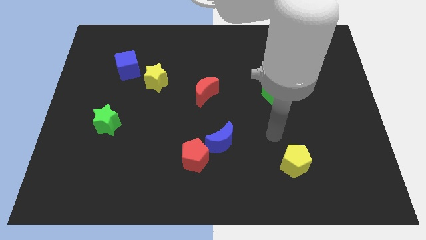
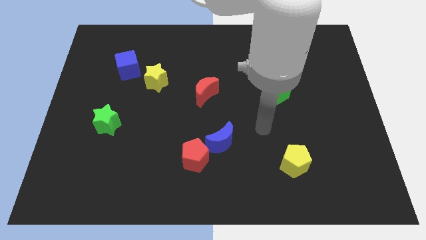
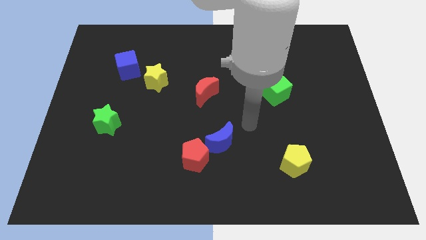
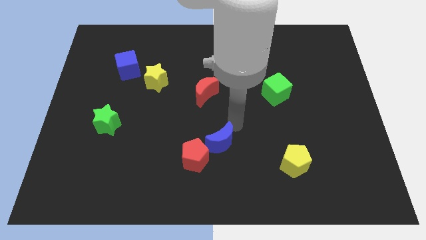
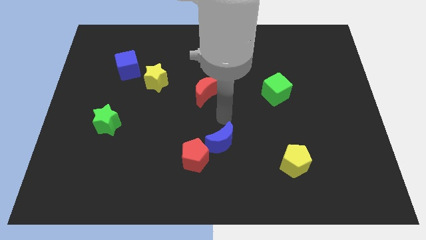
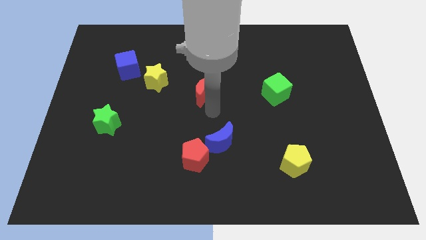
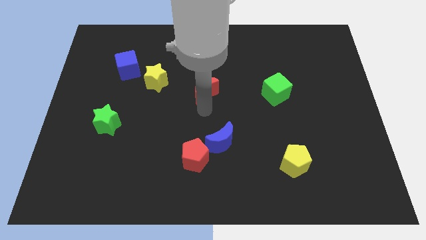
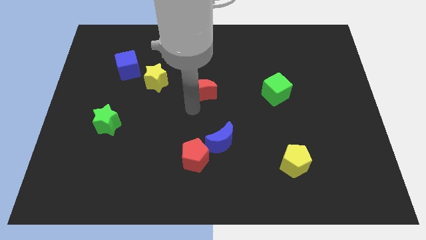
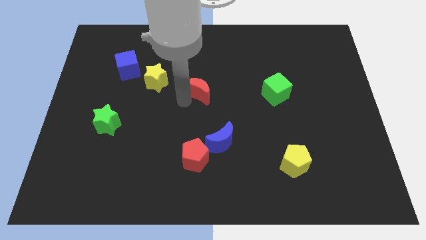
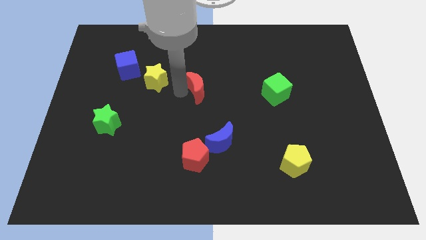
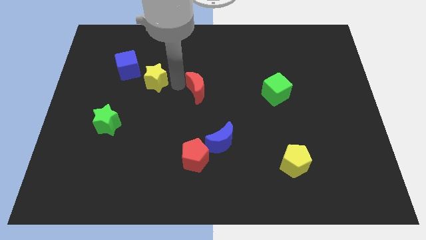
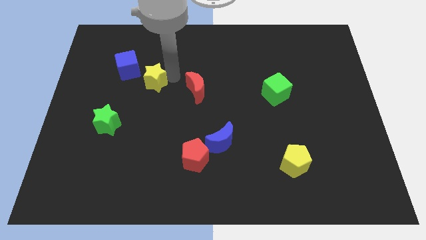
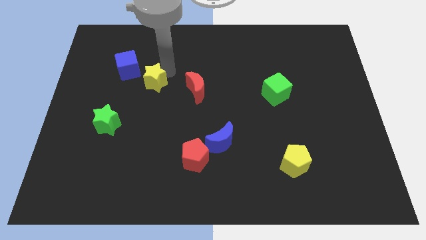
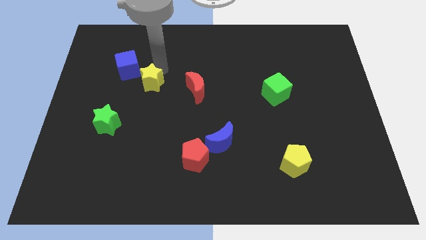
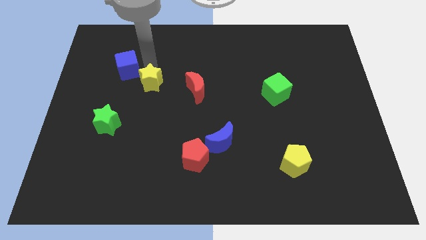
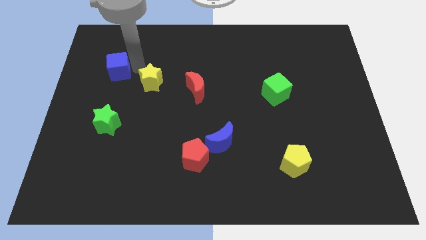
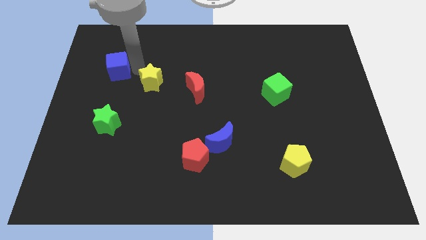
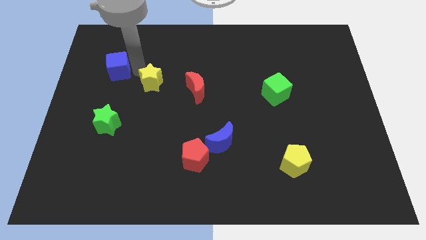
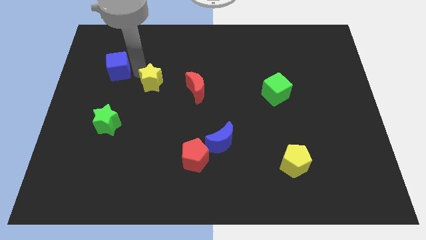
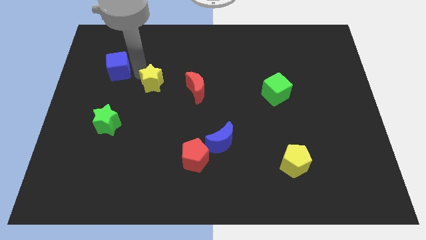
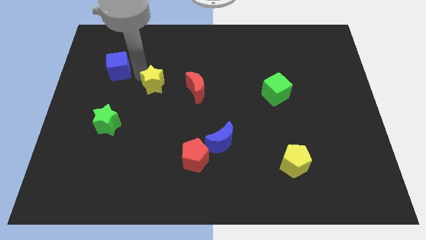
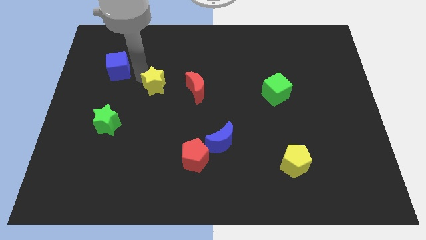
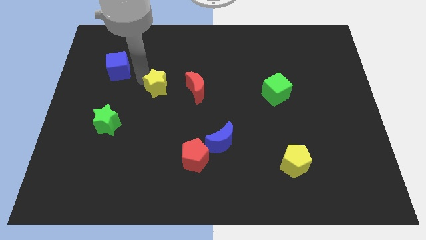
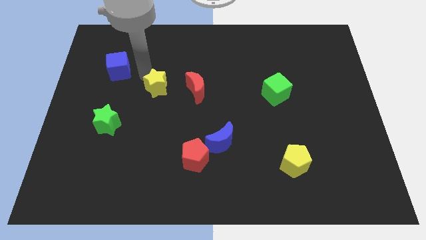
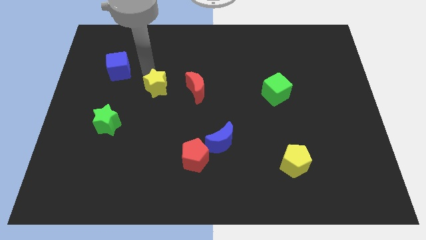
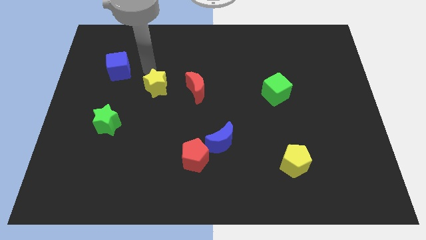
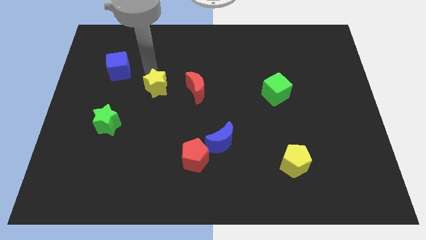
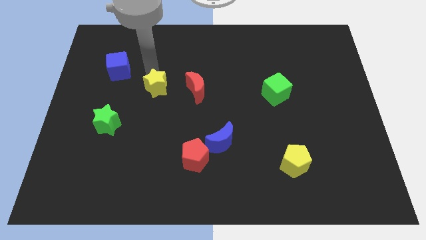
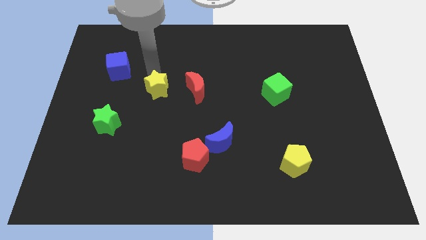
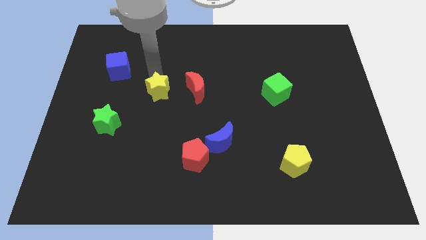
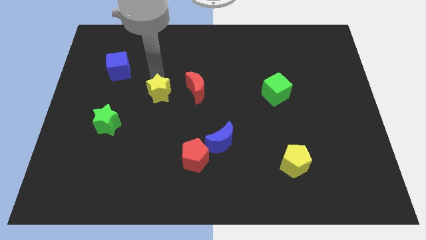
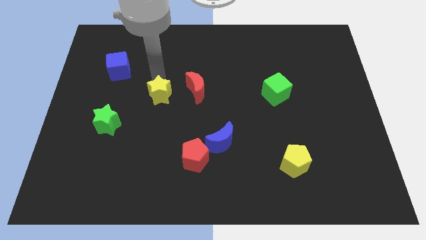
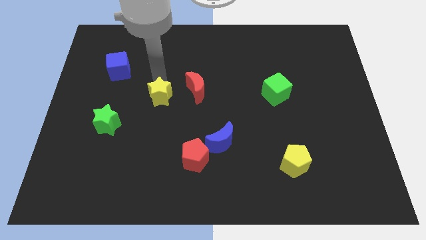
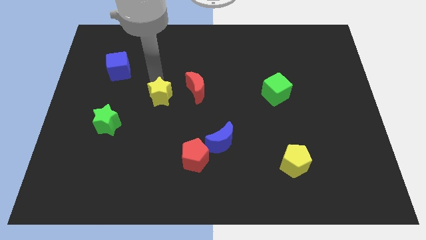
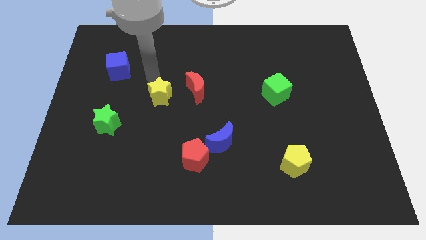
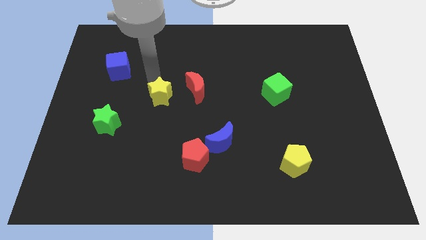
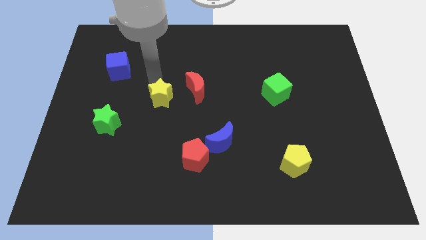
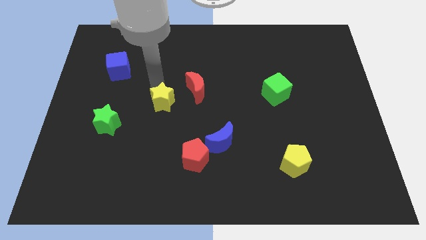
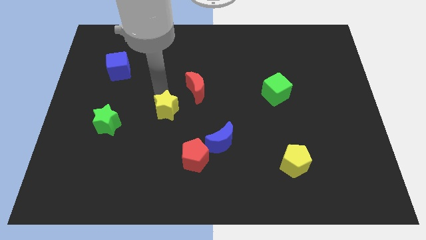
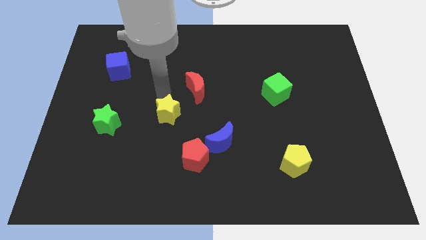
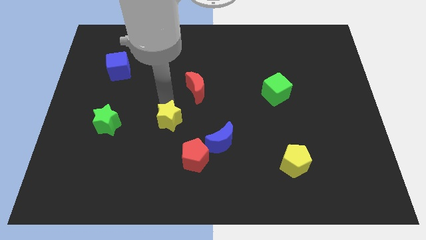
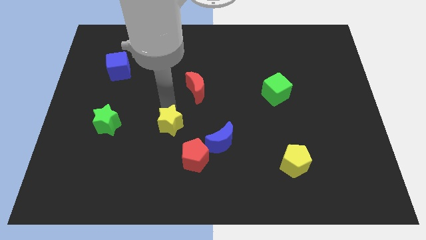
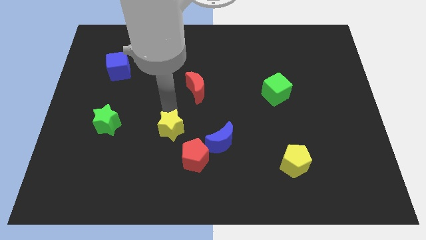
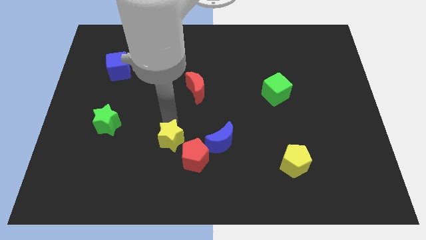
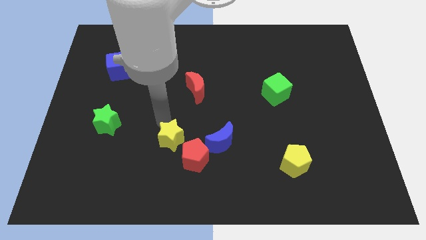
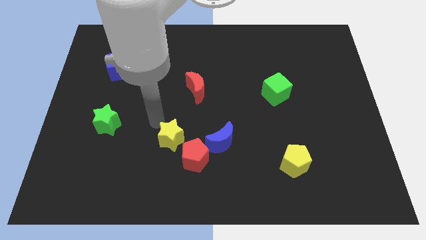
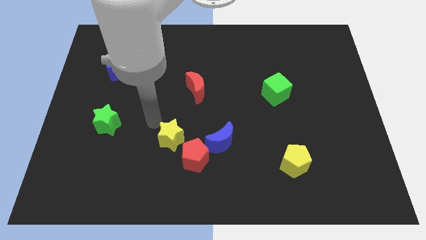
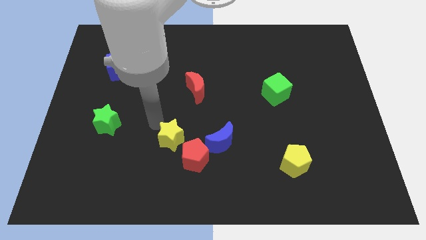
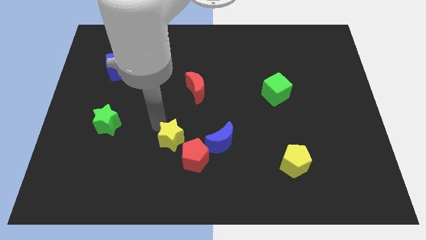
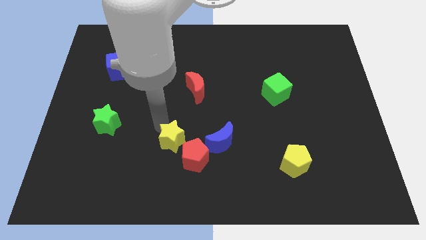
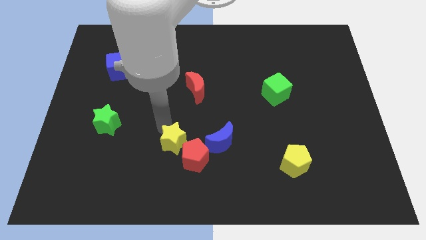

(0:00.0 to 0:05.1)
slide the yellow star to the red pentagon

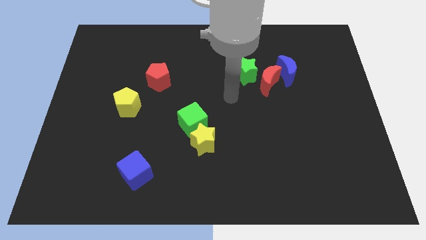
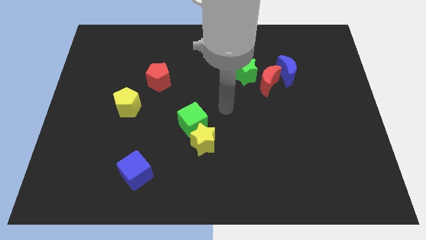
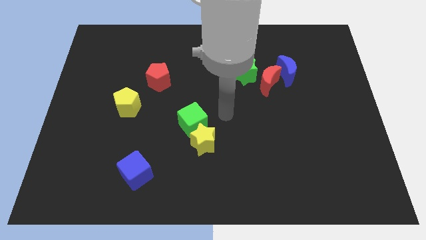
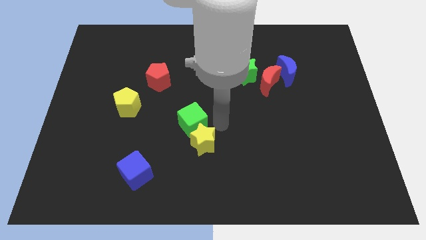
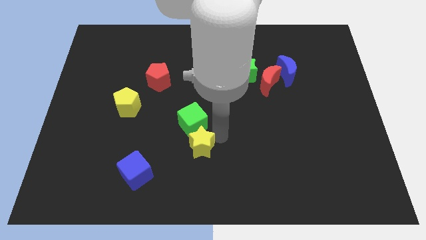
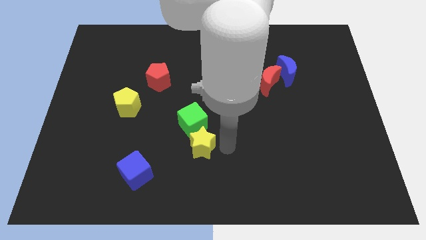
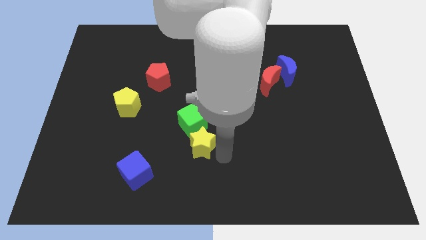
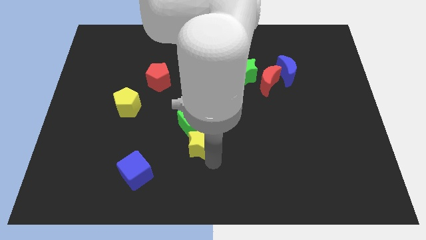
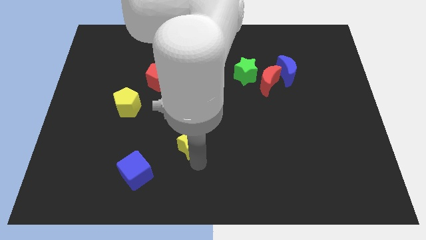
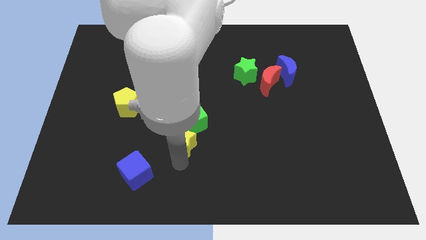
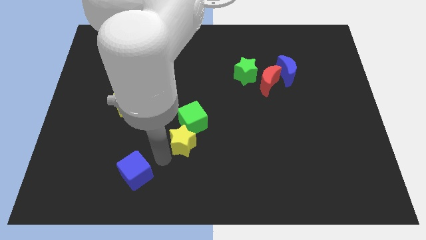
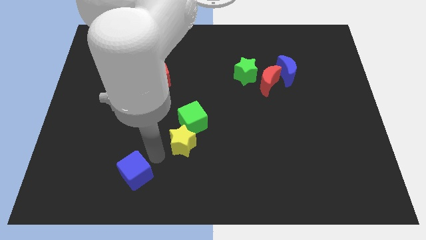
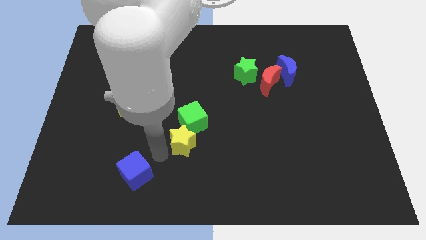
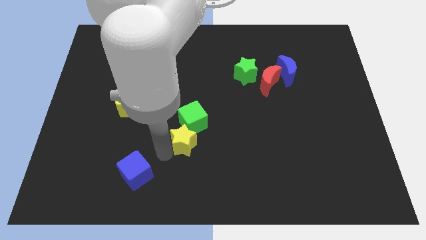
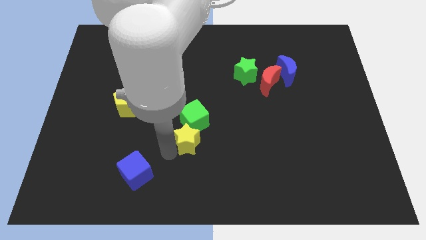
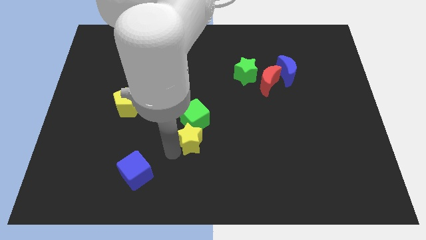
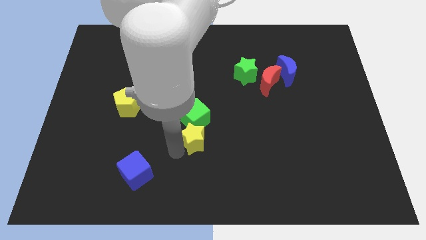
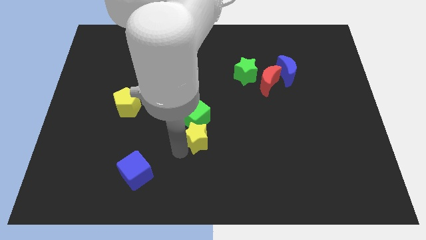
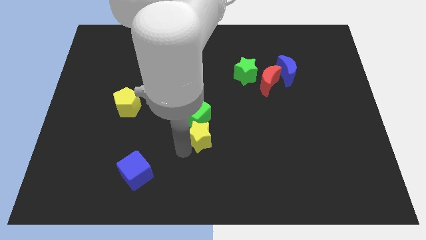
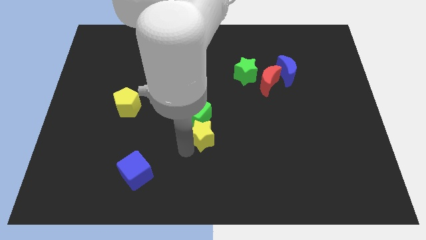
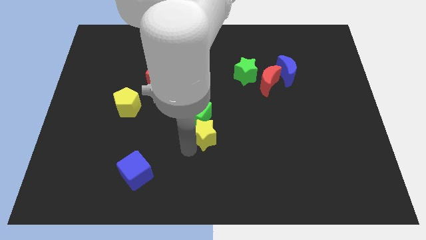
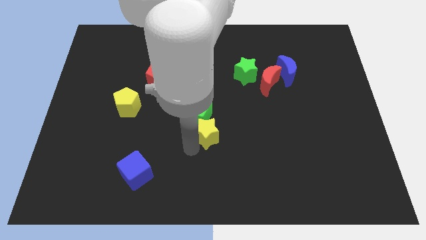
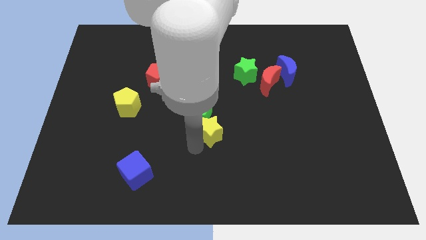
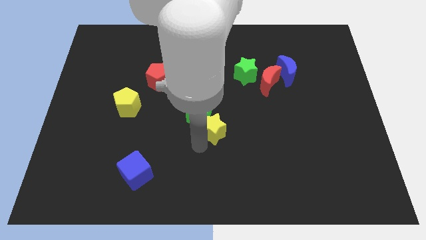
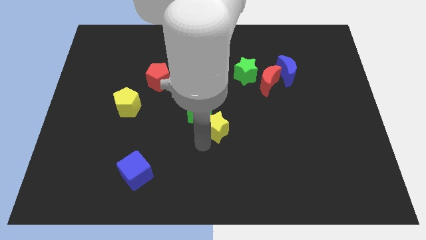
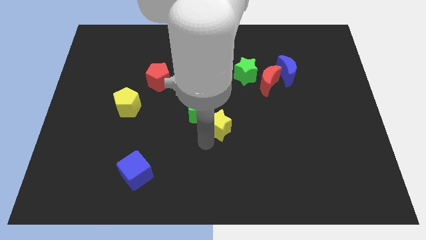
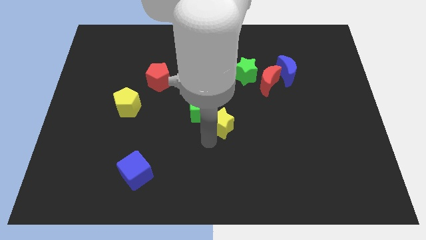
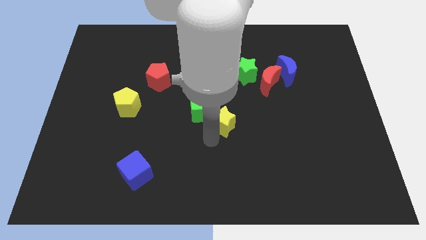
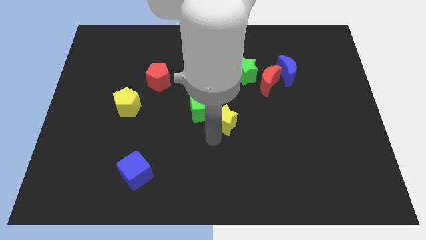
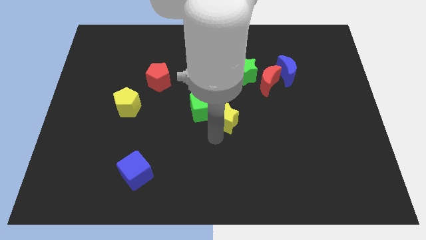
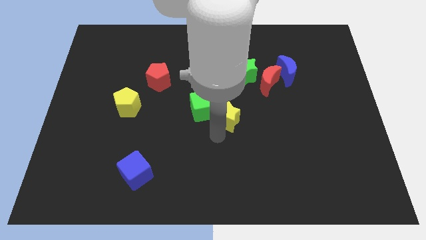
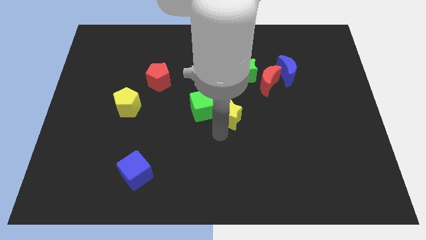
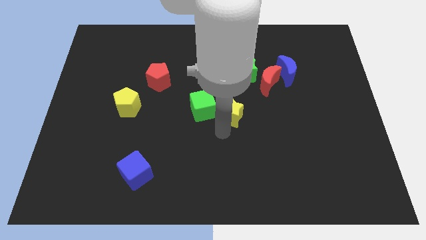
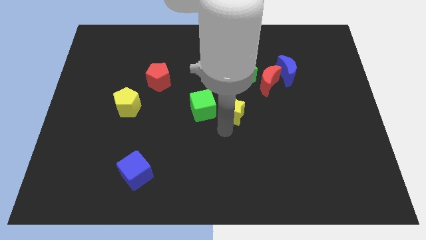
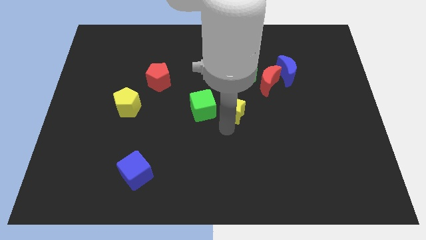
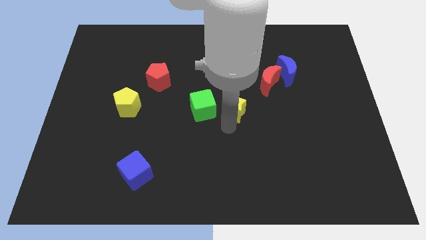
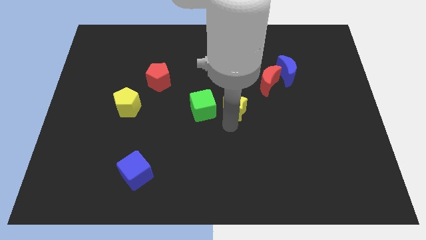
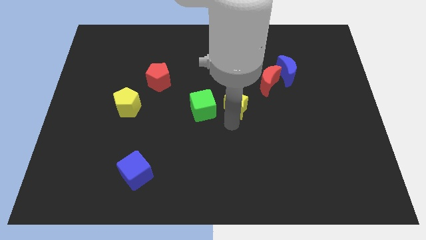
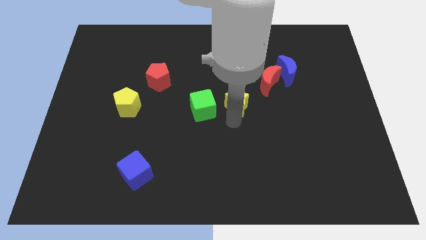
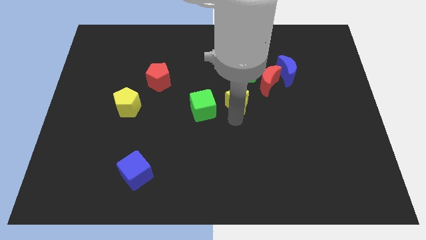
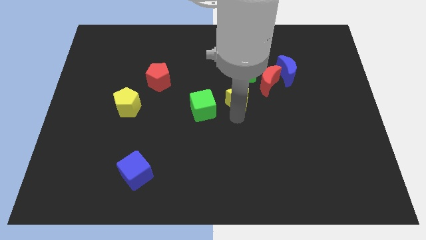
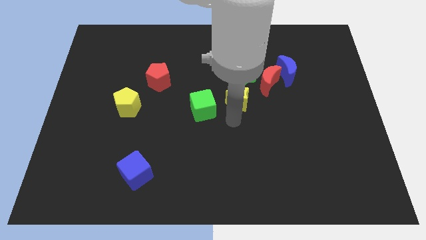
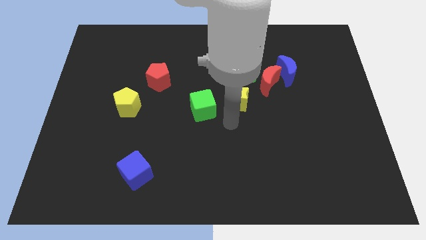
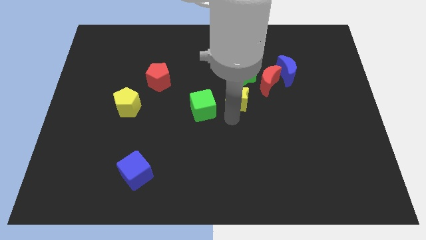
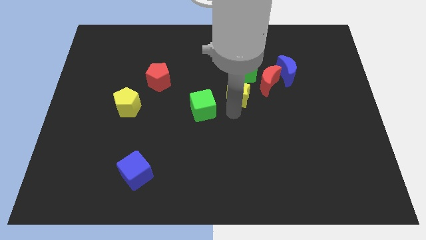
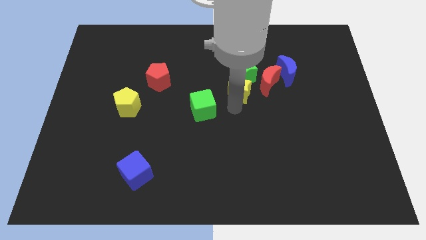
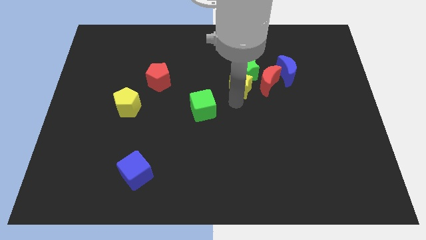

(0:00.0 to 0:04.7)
move the yellow star towards the green star
